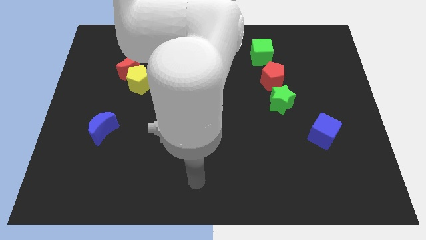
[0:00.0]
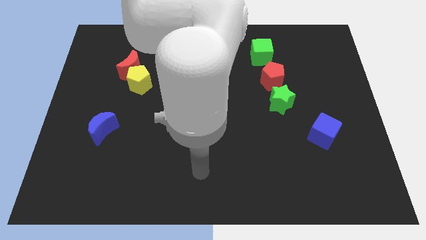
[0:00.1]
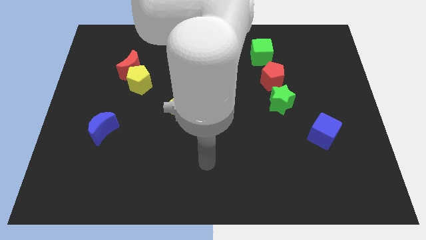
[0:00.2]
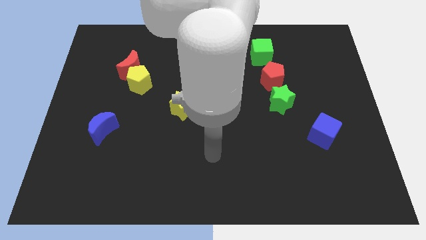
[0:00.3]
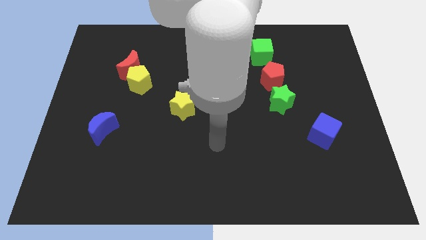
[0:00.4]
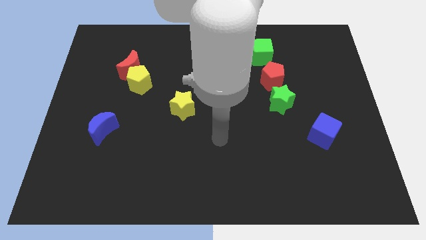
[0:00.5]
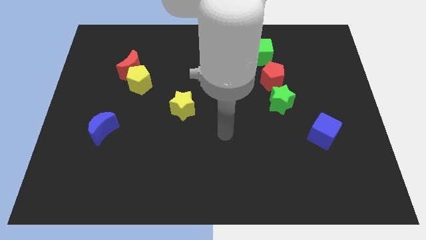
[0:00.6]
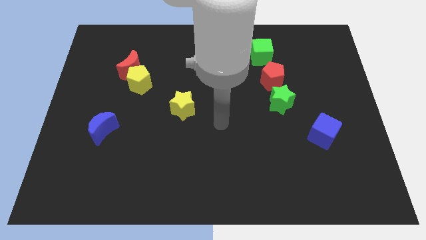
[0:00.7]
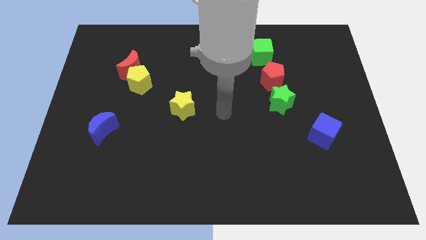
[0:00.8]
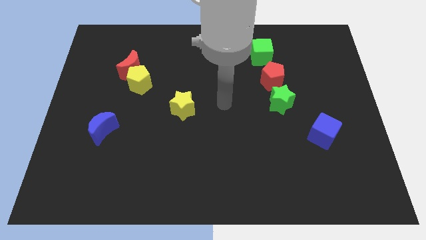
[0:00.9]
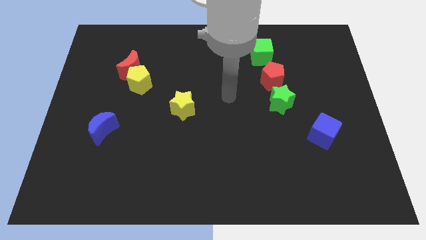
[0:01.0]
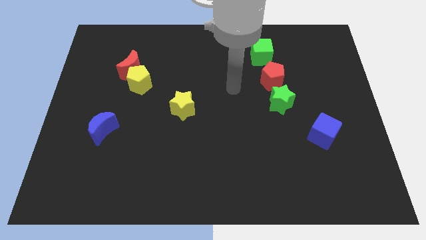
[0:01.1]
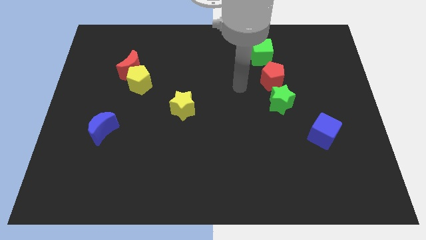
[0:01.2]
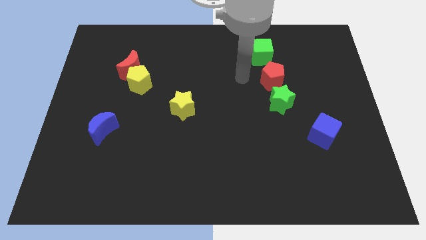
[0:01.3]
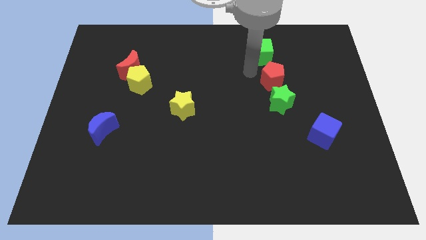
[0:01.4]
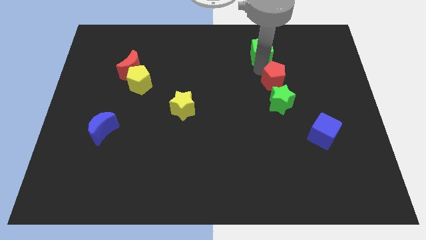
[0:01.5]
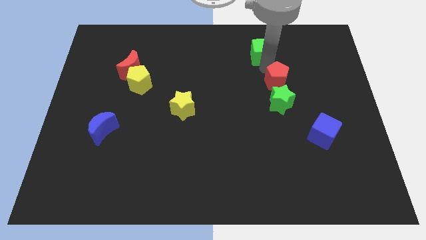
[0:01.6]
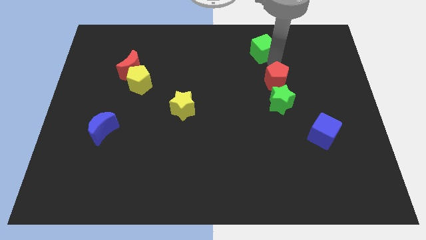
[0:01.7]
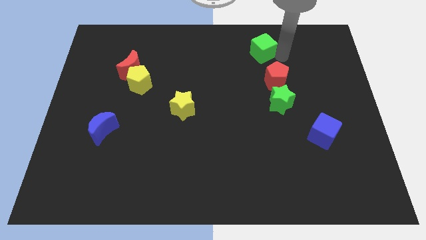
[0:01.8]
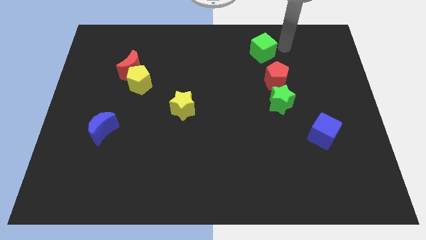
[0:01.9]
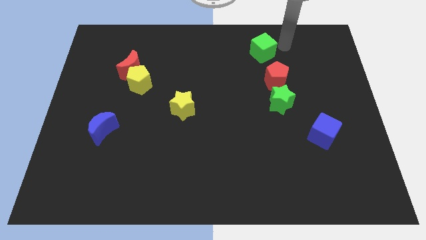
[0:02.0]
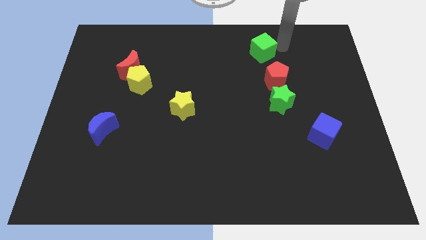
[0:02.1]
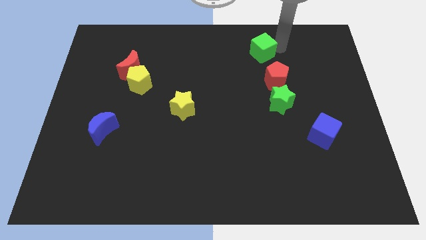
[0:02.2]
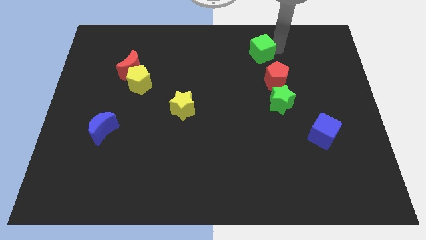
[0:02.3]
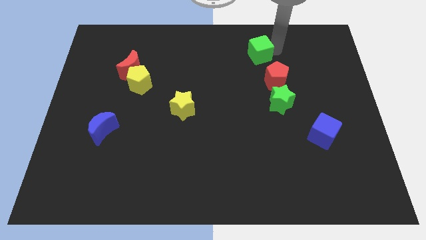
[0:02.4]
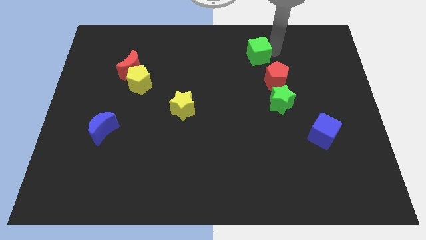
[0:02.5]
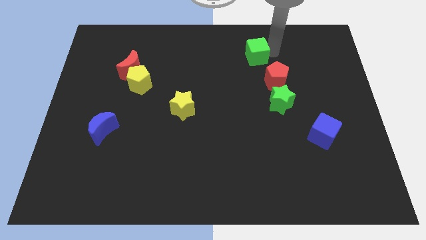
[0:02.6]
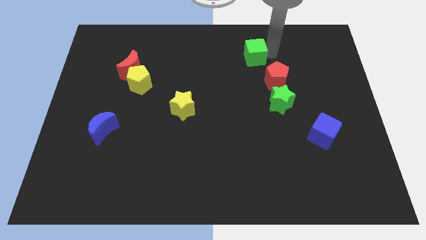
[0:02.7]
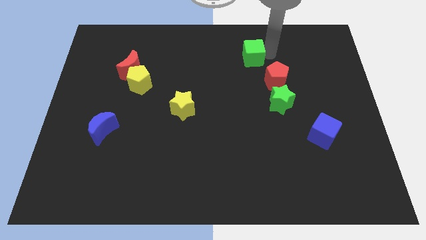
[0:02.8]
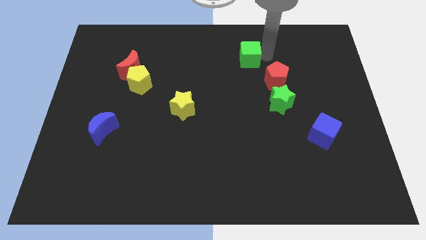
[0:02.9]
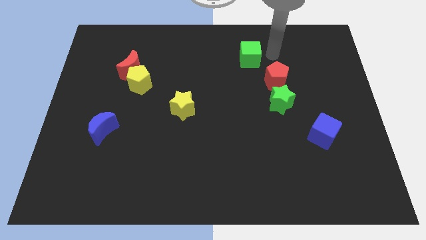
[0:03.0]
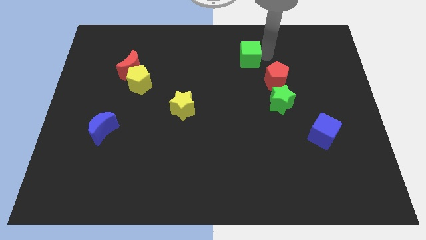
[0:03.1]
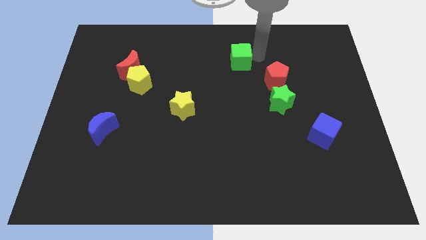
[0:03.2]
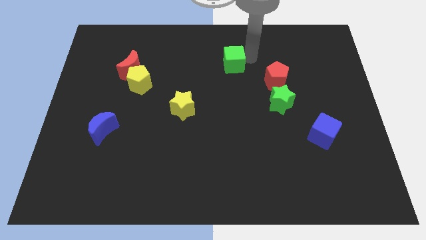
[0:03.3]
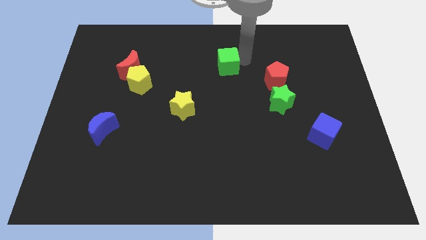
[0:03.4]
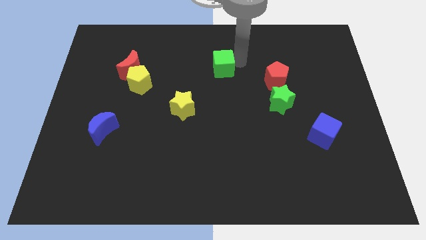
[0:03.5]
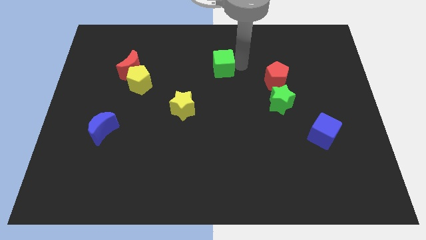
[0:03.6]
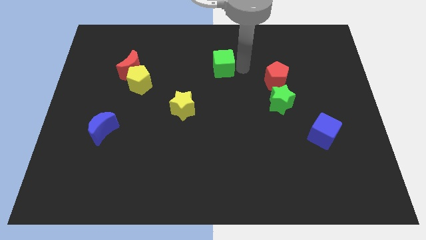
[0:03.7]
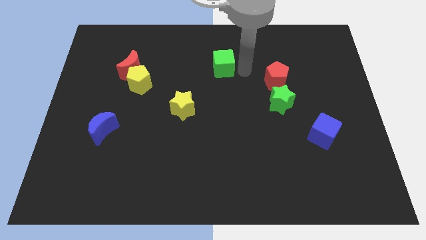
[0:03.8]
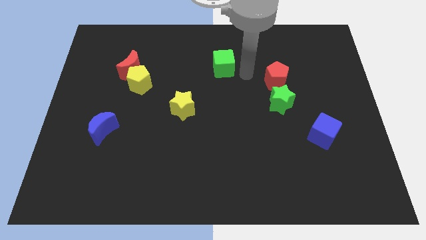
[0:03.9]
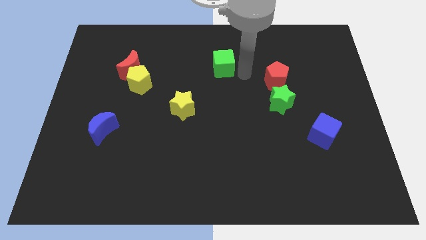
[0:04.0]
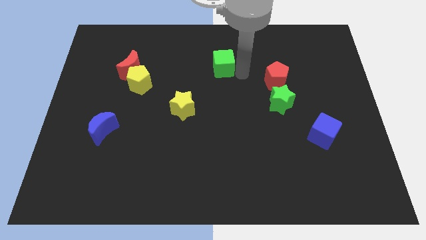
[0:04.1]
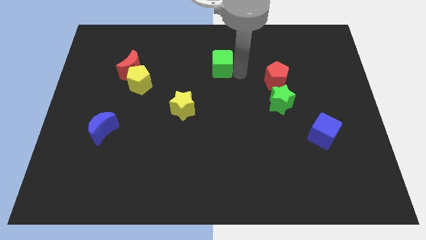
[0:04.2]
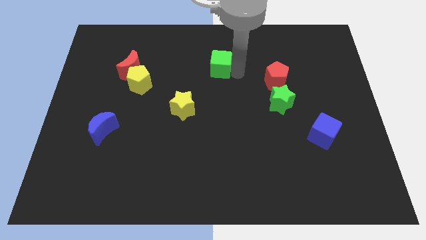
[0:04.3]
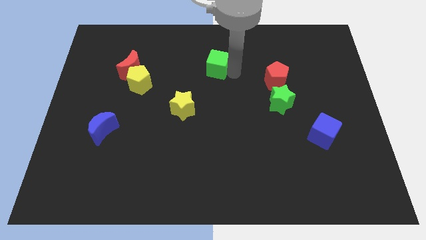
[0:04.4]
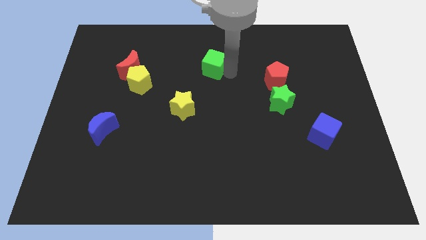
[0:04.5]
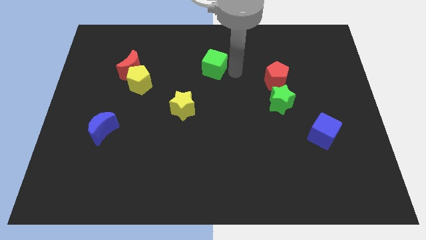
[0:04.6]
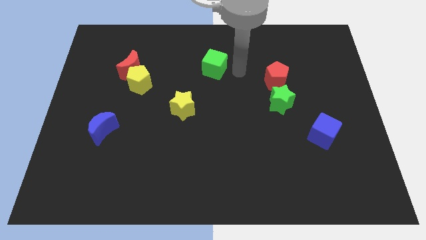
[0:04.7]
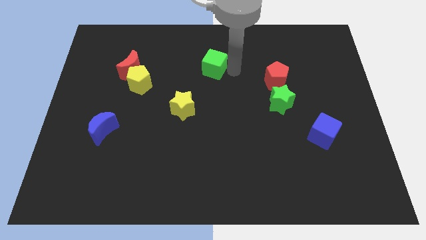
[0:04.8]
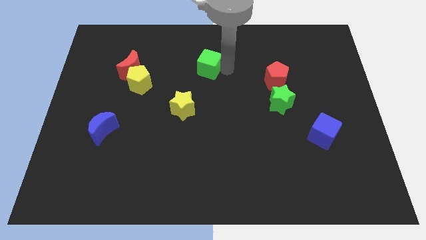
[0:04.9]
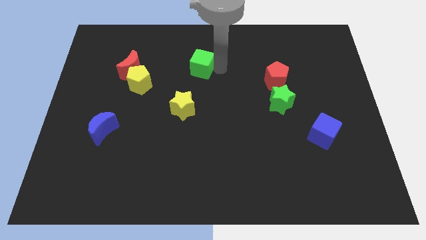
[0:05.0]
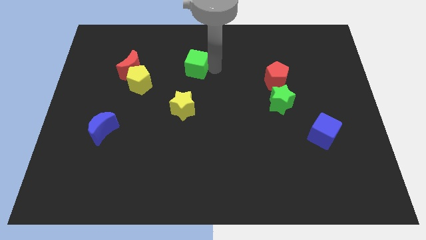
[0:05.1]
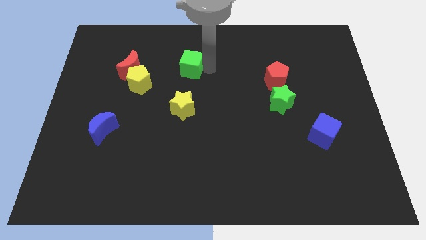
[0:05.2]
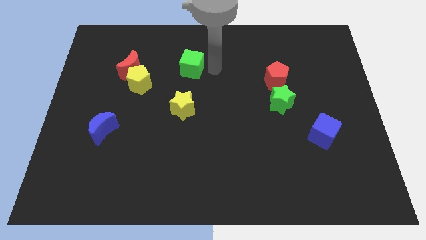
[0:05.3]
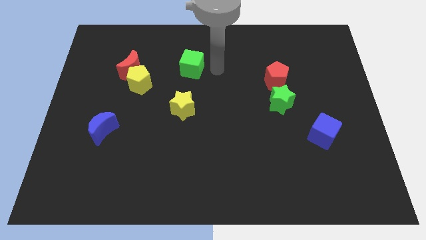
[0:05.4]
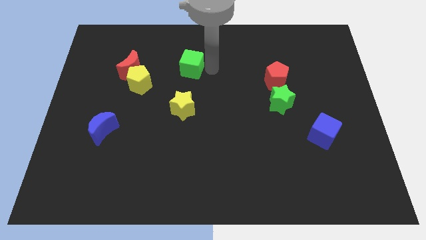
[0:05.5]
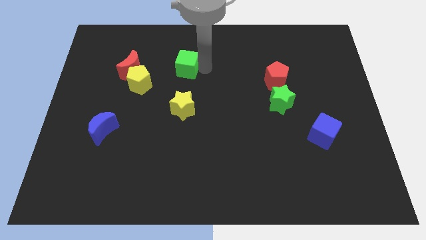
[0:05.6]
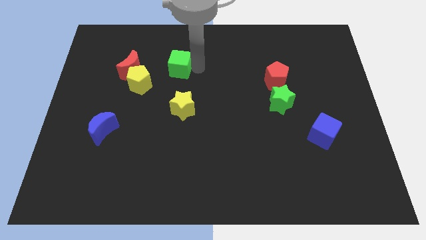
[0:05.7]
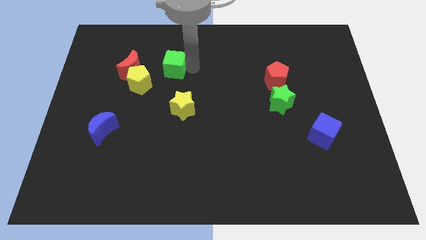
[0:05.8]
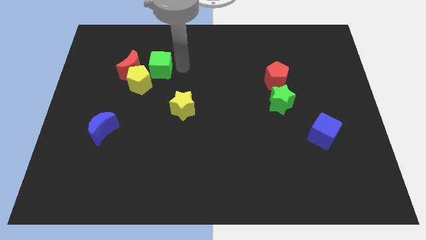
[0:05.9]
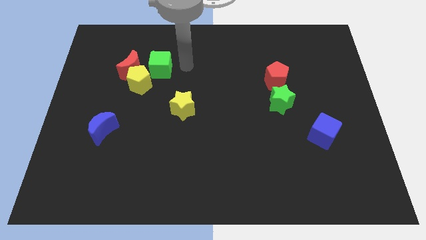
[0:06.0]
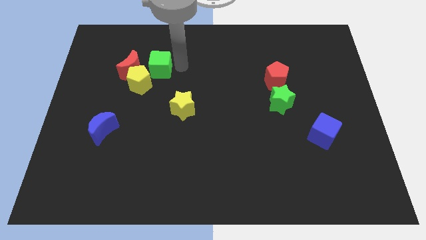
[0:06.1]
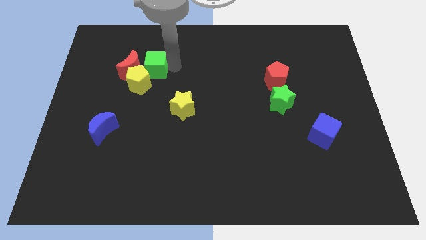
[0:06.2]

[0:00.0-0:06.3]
put the green cube to the red moon
